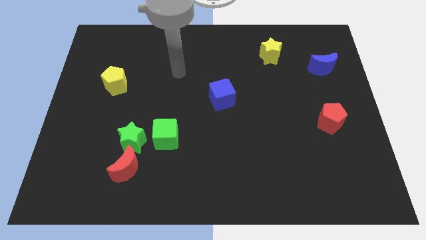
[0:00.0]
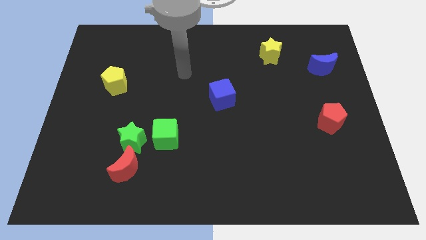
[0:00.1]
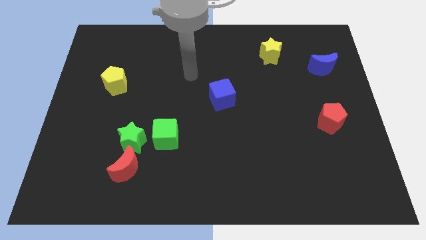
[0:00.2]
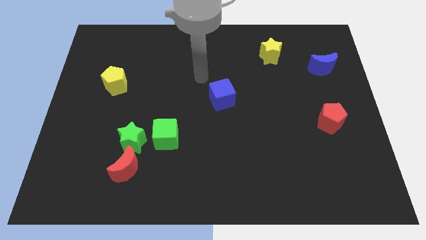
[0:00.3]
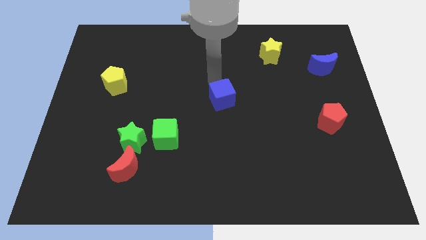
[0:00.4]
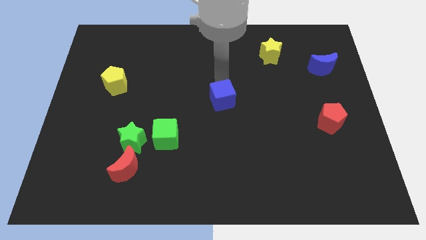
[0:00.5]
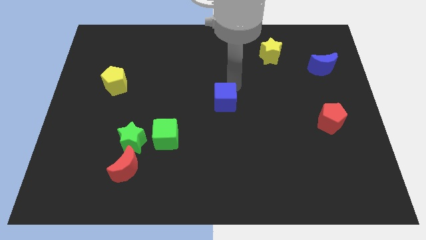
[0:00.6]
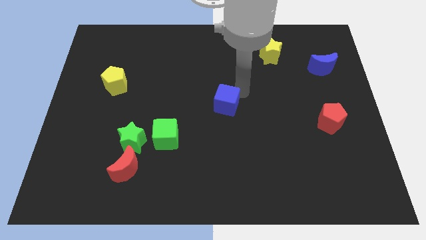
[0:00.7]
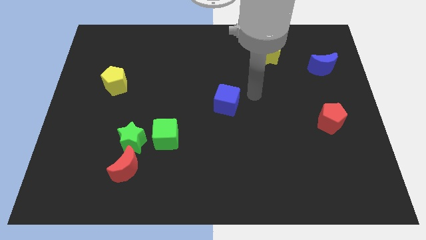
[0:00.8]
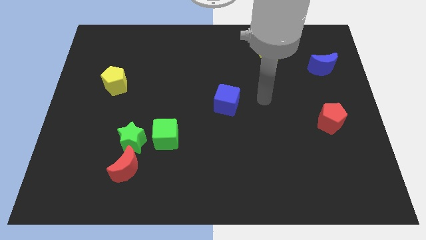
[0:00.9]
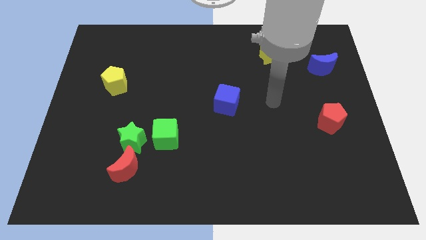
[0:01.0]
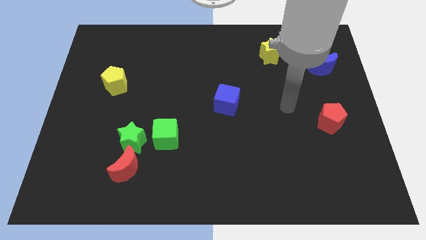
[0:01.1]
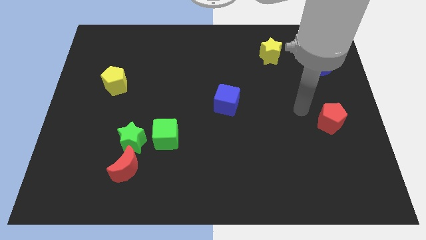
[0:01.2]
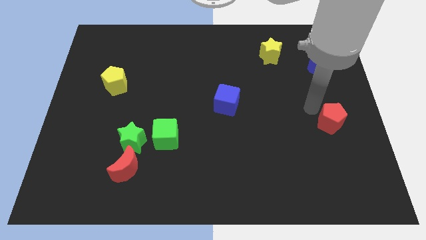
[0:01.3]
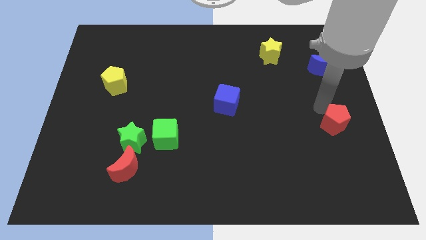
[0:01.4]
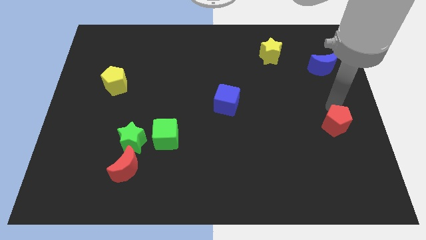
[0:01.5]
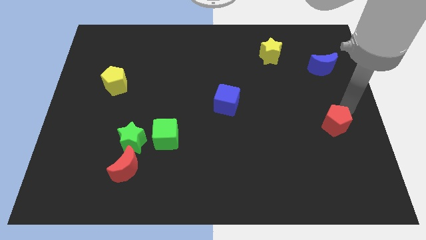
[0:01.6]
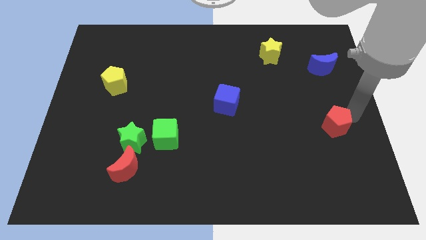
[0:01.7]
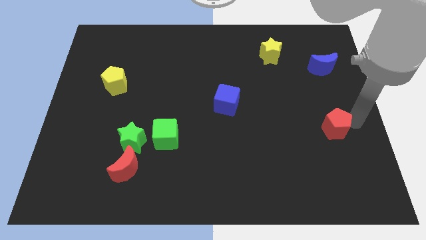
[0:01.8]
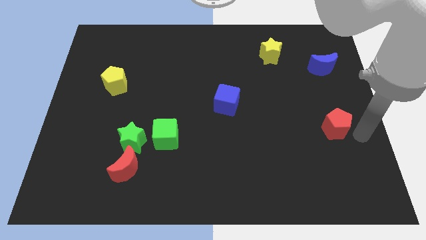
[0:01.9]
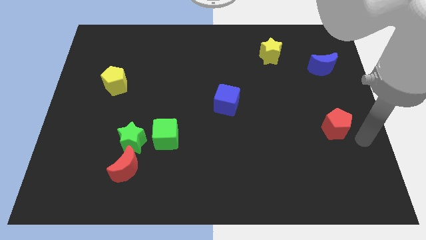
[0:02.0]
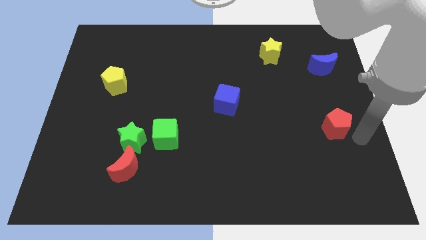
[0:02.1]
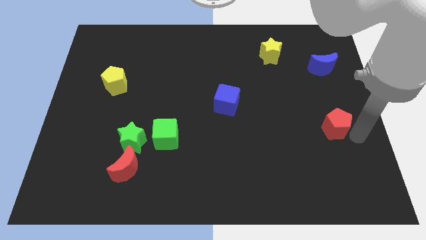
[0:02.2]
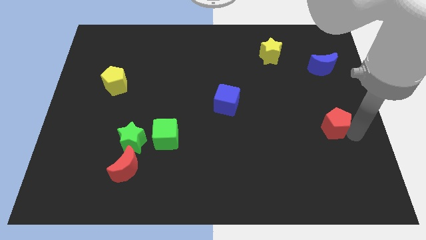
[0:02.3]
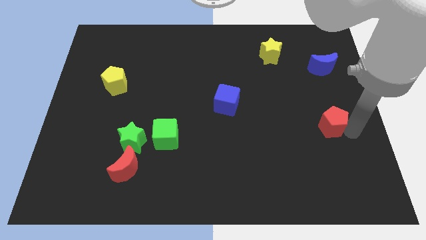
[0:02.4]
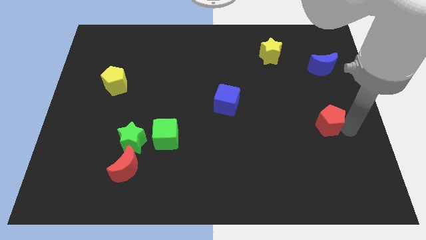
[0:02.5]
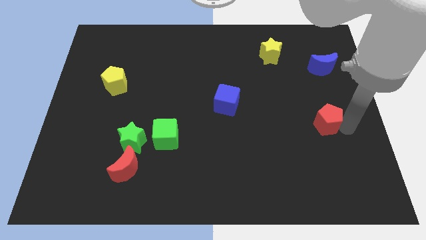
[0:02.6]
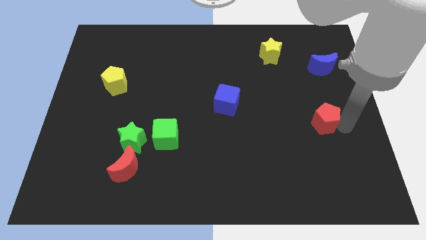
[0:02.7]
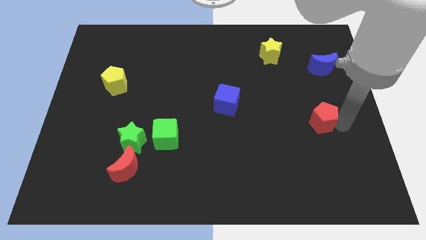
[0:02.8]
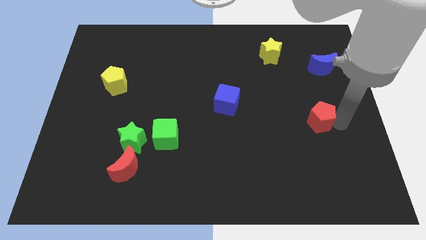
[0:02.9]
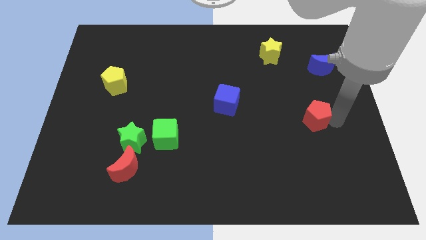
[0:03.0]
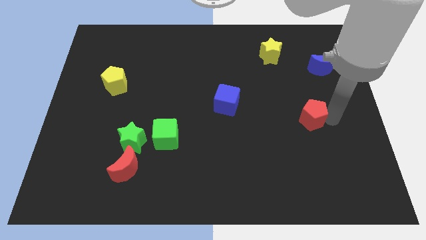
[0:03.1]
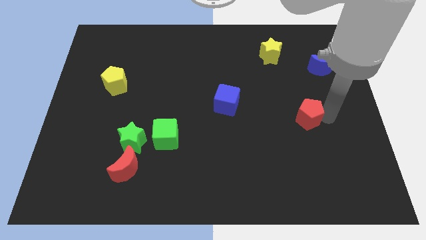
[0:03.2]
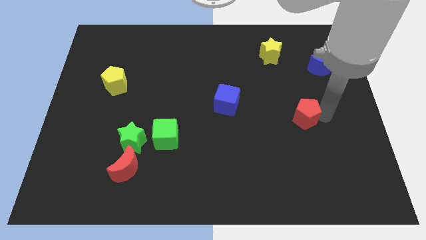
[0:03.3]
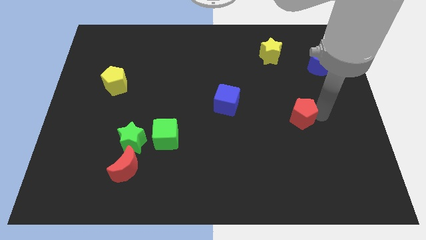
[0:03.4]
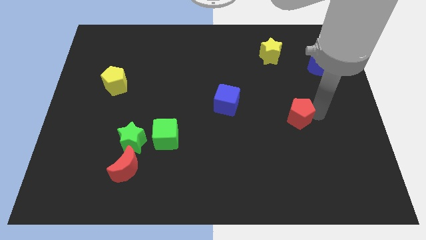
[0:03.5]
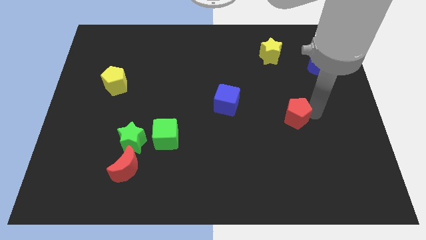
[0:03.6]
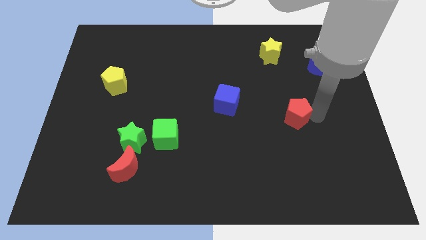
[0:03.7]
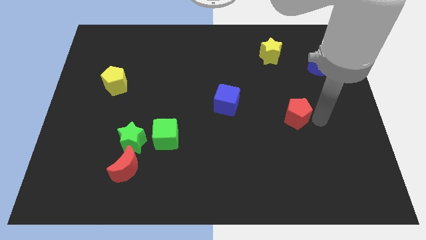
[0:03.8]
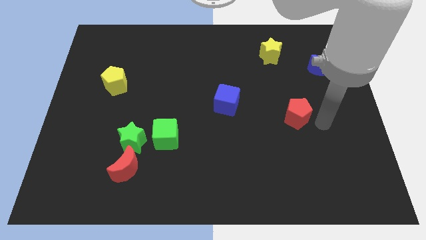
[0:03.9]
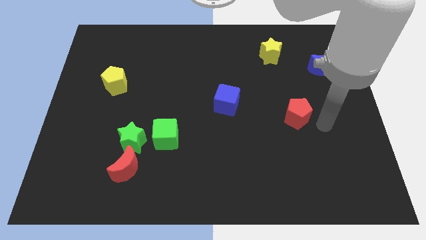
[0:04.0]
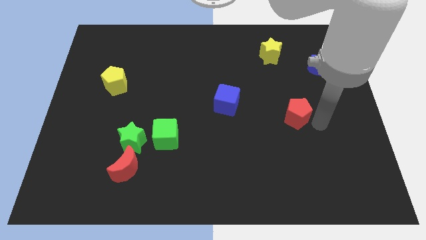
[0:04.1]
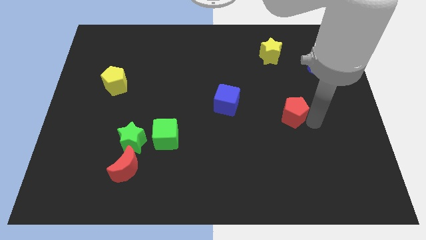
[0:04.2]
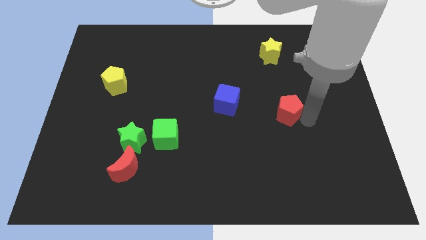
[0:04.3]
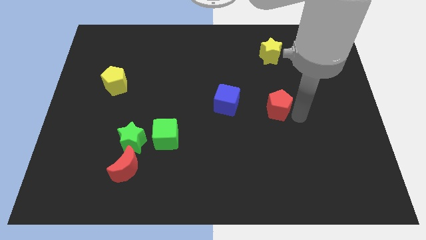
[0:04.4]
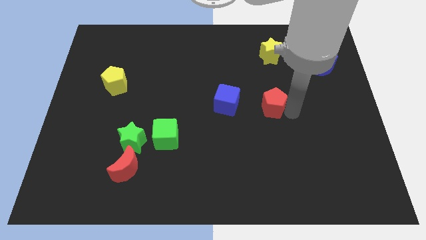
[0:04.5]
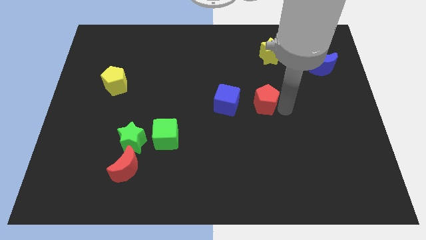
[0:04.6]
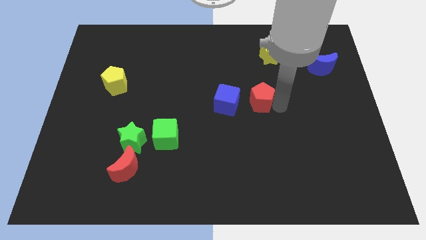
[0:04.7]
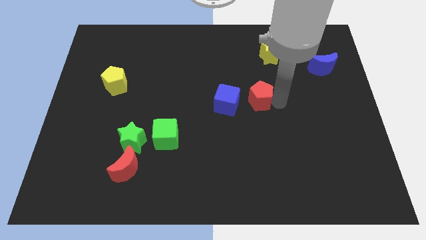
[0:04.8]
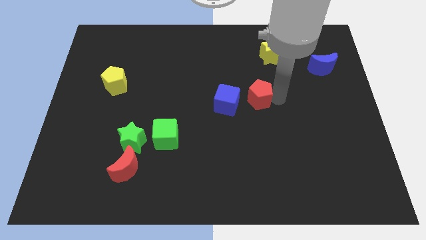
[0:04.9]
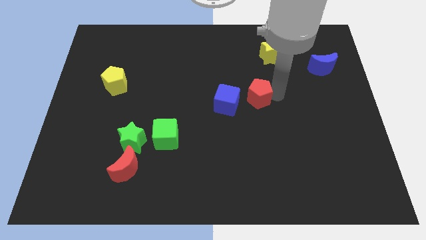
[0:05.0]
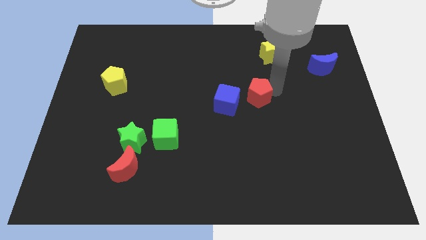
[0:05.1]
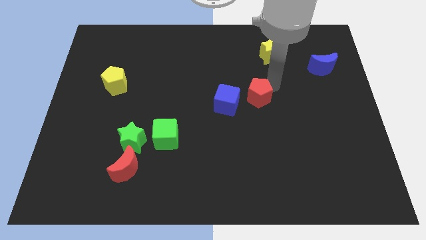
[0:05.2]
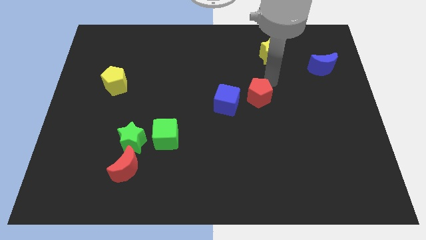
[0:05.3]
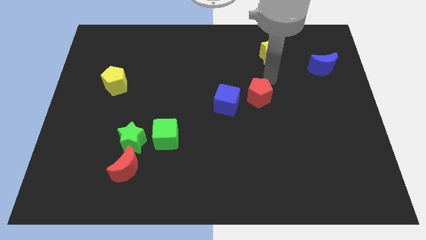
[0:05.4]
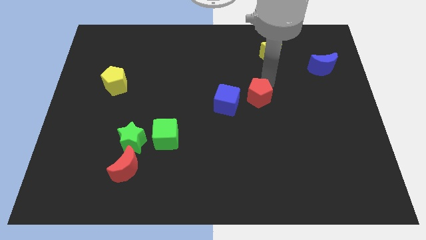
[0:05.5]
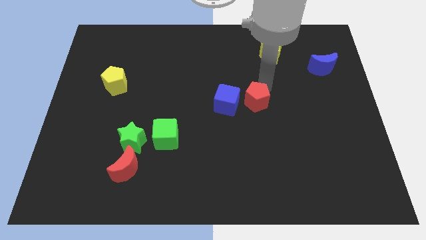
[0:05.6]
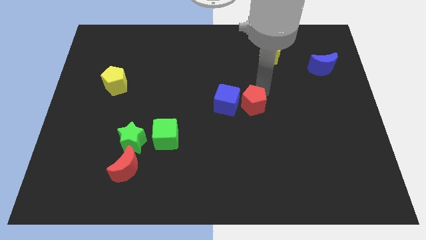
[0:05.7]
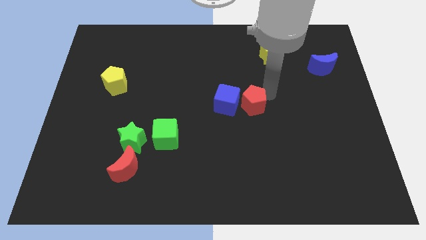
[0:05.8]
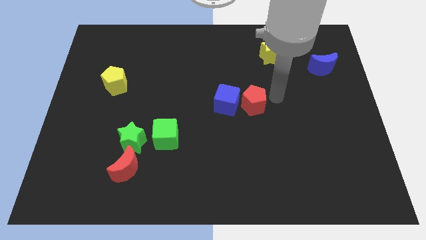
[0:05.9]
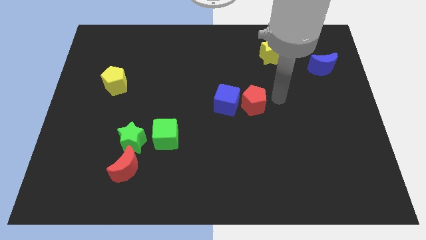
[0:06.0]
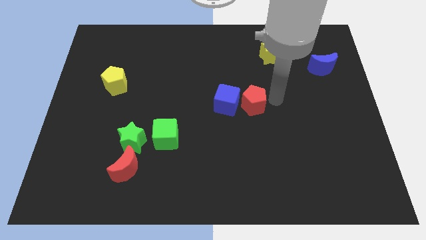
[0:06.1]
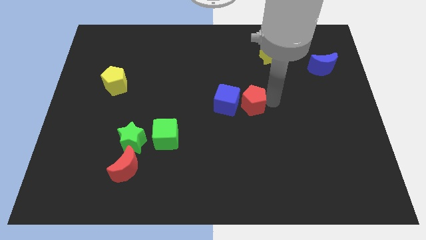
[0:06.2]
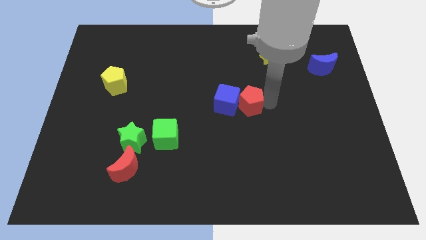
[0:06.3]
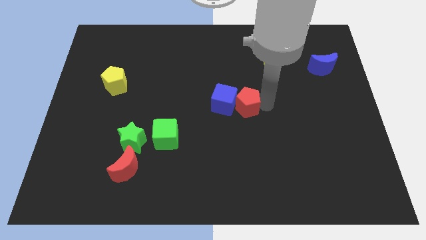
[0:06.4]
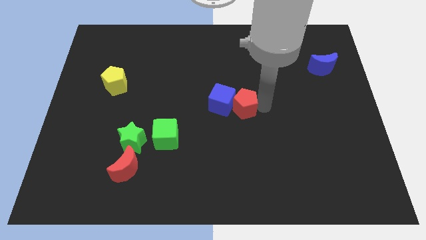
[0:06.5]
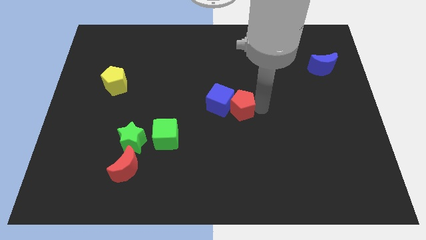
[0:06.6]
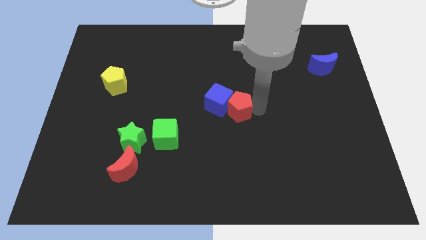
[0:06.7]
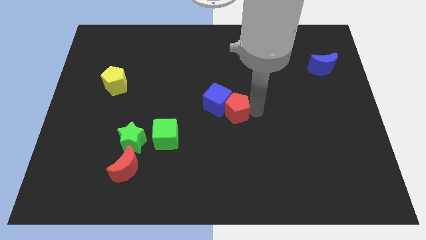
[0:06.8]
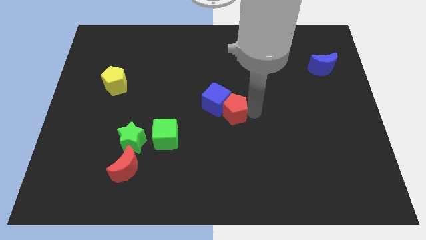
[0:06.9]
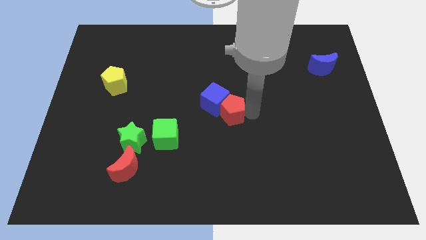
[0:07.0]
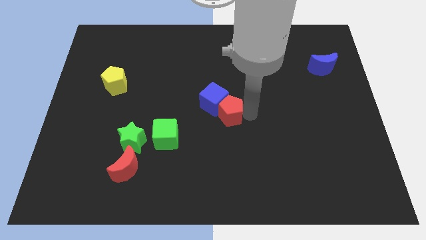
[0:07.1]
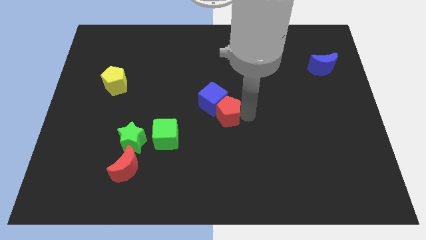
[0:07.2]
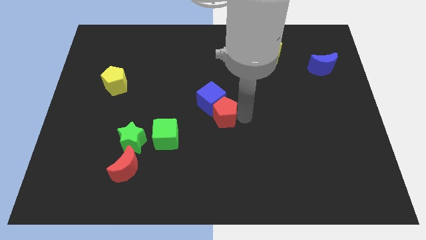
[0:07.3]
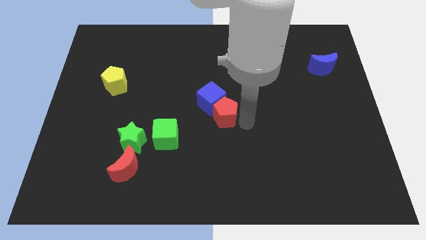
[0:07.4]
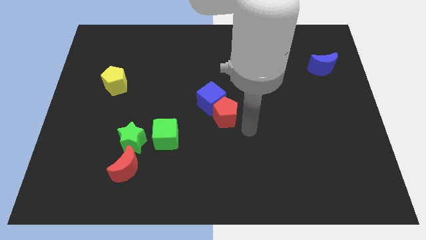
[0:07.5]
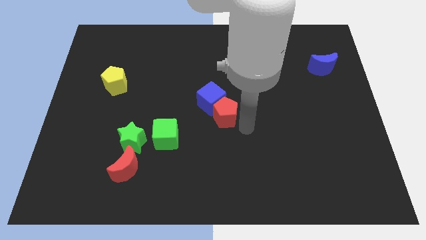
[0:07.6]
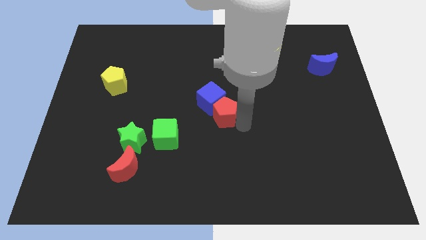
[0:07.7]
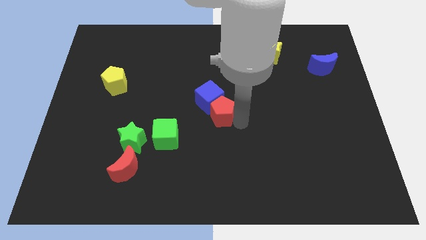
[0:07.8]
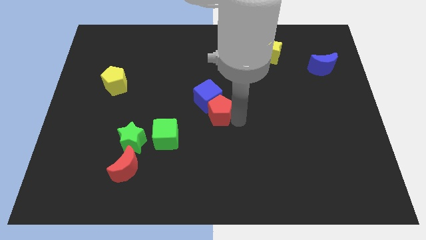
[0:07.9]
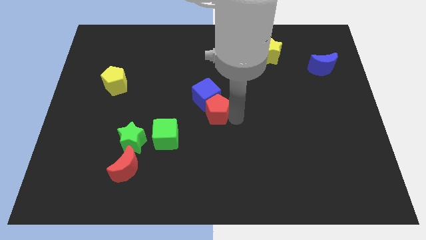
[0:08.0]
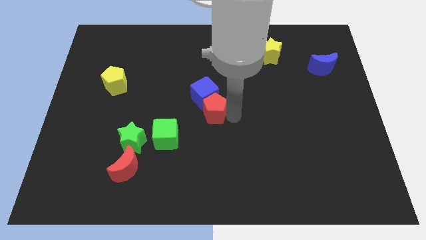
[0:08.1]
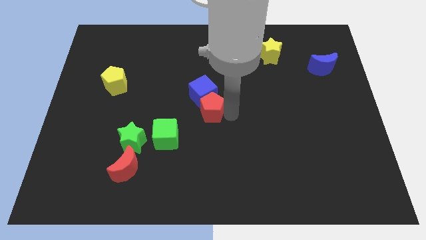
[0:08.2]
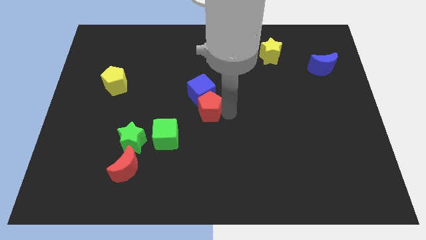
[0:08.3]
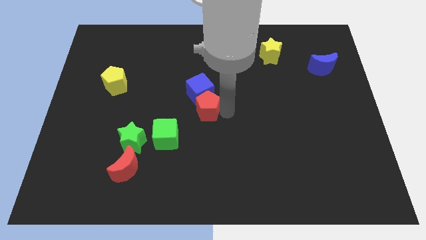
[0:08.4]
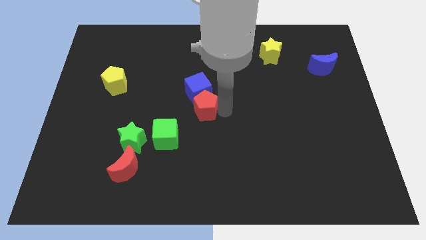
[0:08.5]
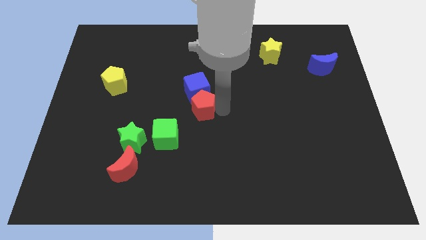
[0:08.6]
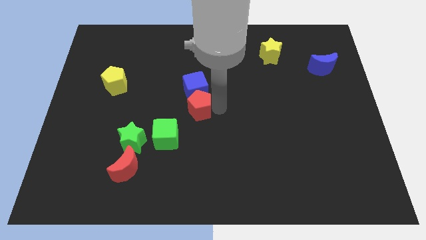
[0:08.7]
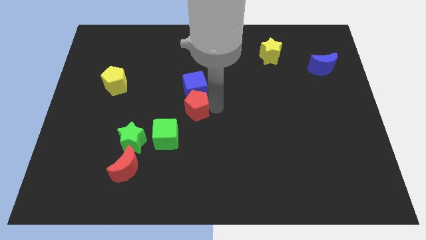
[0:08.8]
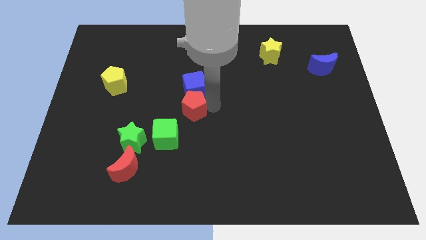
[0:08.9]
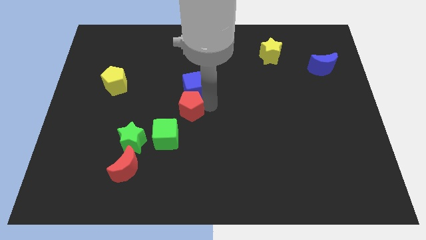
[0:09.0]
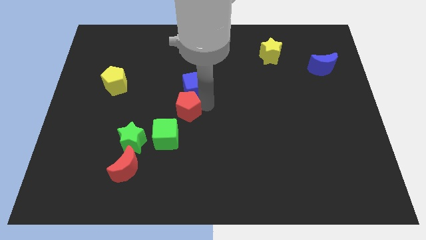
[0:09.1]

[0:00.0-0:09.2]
push the red pentagon to the top of the green cube
